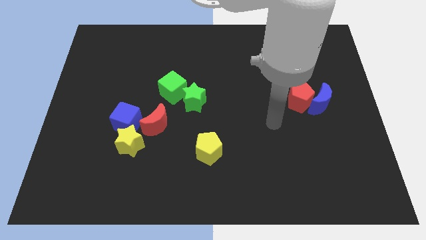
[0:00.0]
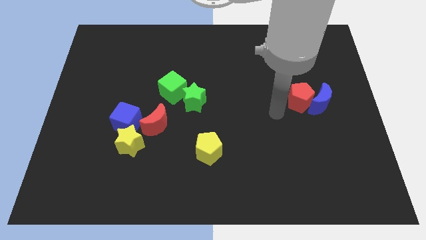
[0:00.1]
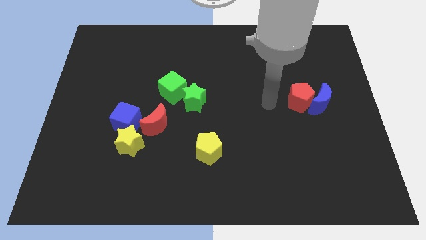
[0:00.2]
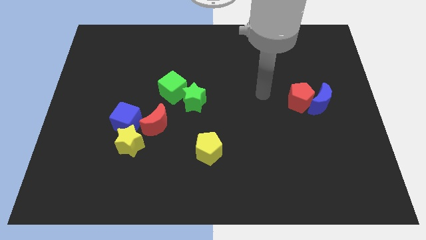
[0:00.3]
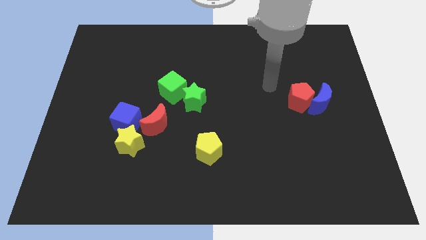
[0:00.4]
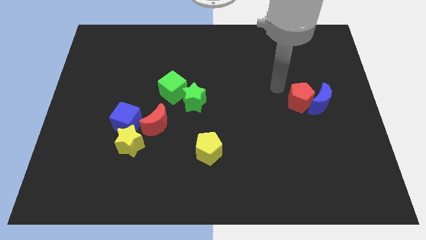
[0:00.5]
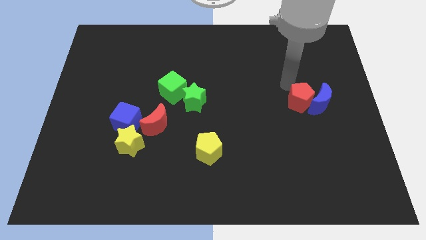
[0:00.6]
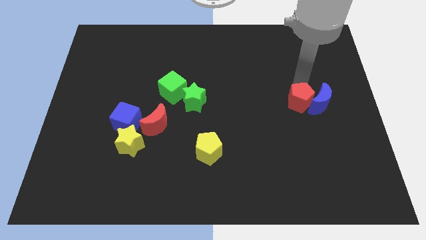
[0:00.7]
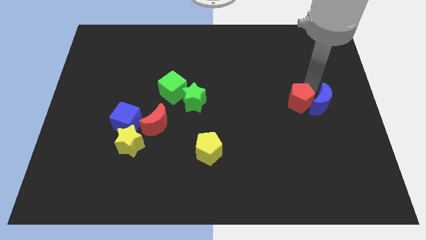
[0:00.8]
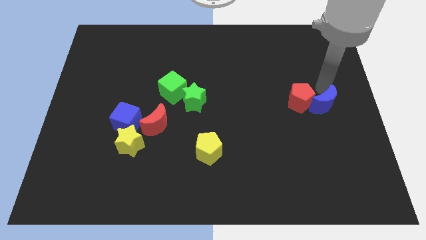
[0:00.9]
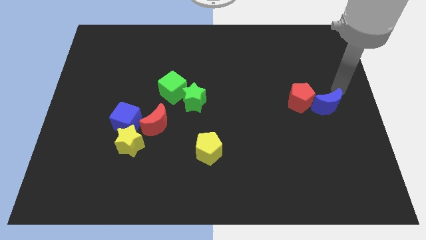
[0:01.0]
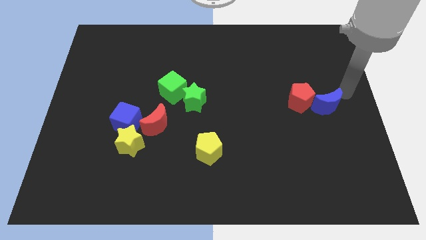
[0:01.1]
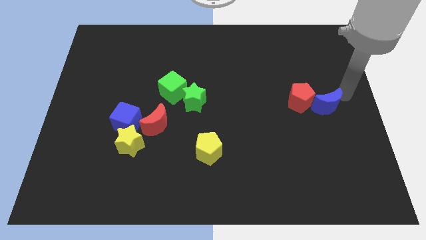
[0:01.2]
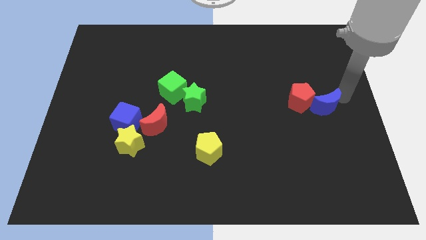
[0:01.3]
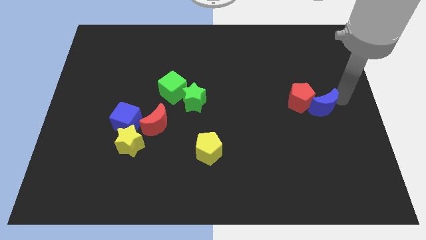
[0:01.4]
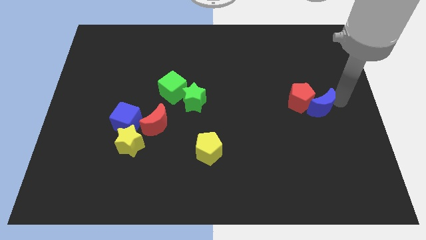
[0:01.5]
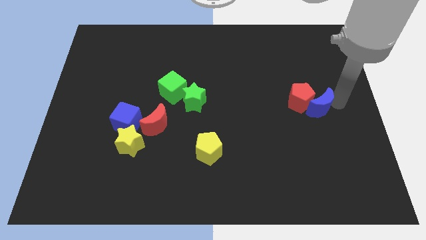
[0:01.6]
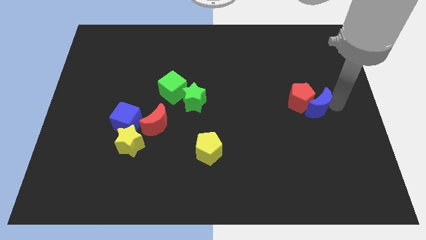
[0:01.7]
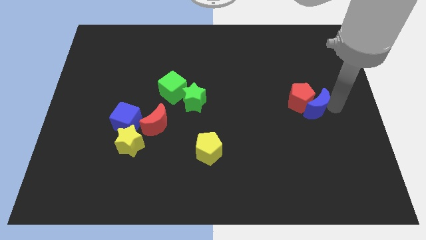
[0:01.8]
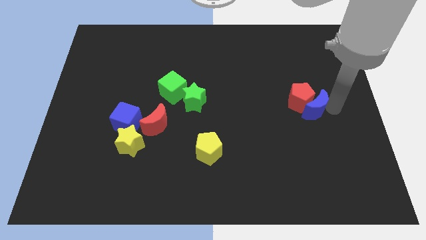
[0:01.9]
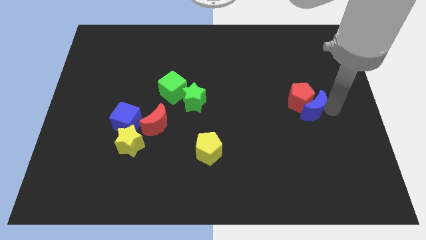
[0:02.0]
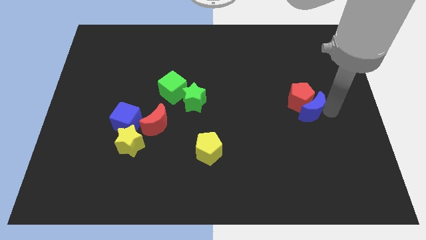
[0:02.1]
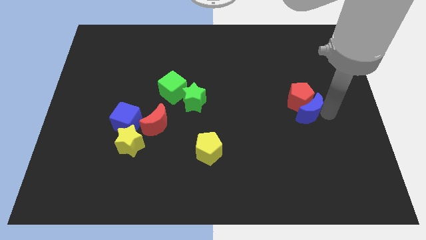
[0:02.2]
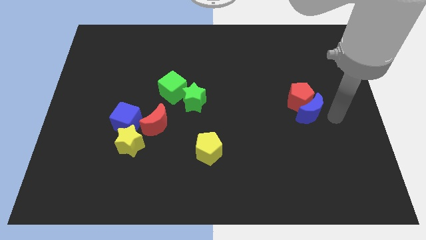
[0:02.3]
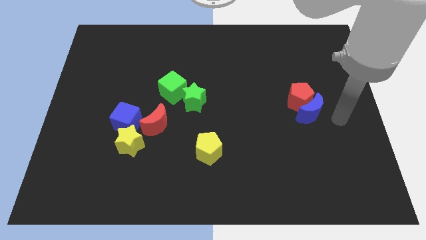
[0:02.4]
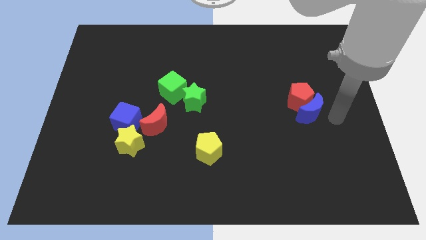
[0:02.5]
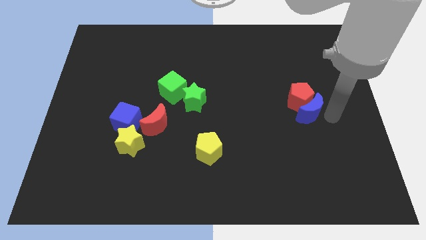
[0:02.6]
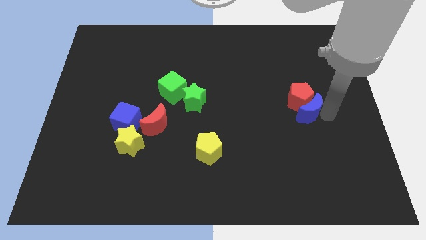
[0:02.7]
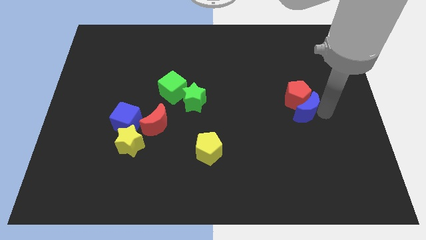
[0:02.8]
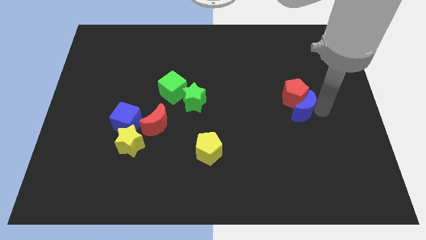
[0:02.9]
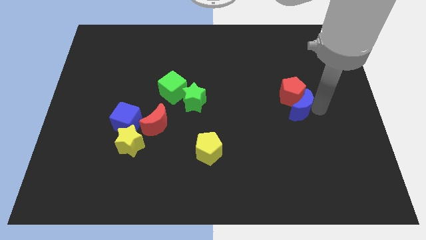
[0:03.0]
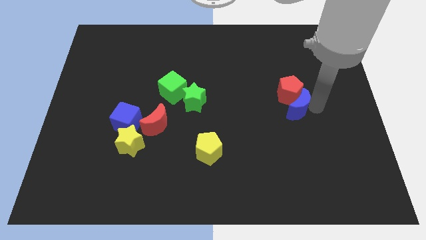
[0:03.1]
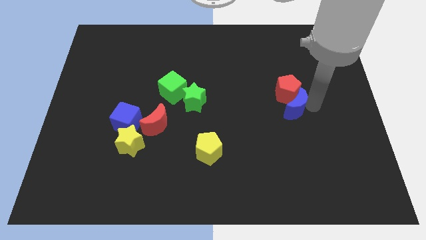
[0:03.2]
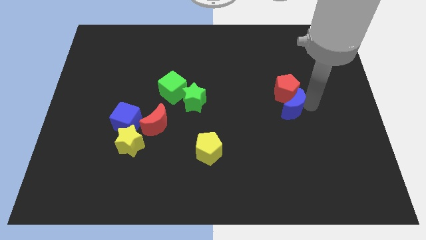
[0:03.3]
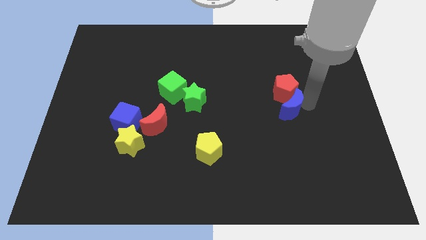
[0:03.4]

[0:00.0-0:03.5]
move the blue moon to the left a little

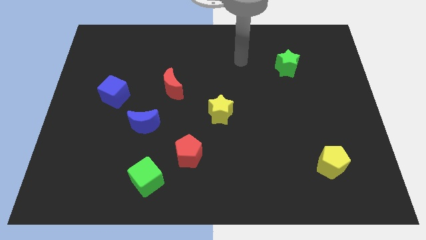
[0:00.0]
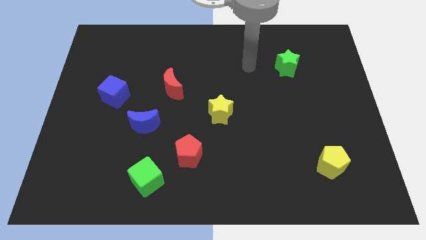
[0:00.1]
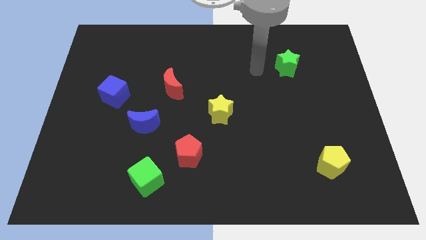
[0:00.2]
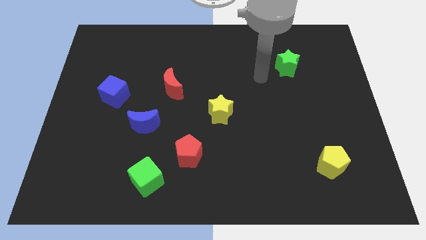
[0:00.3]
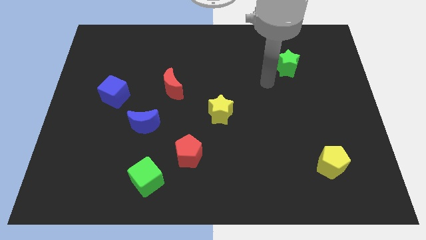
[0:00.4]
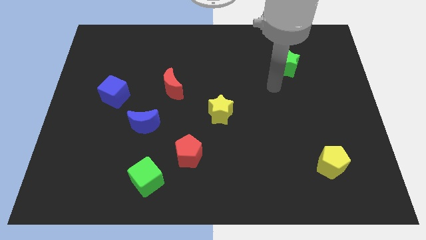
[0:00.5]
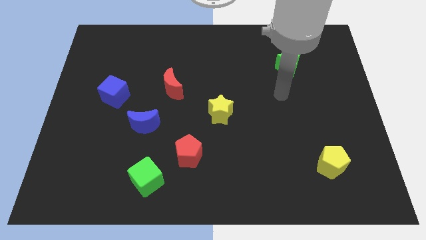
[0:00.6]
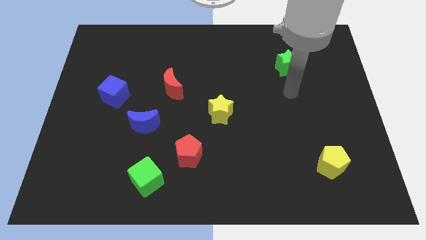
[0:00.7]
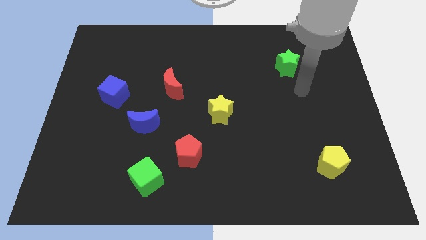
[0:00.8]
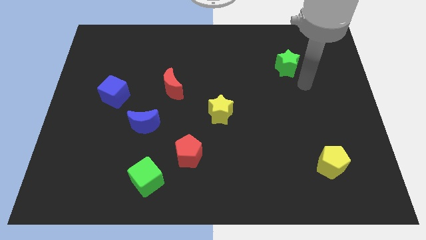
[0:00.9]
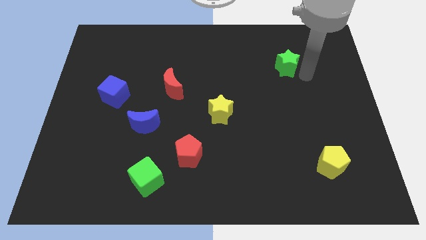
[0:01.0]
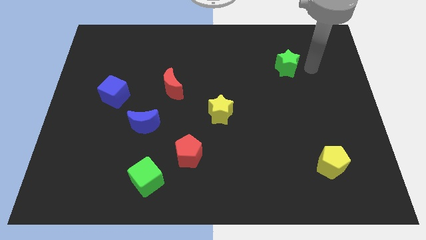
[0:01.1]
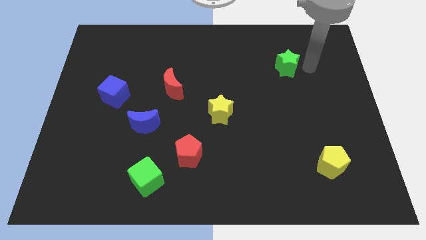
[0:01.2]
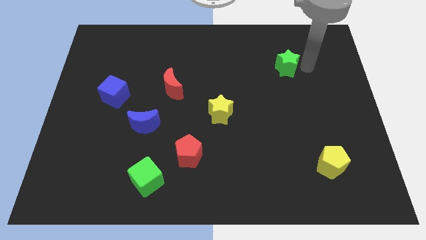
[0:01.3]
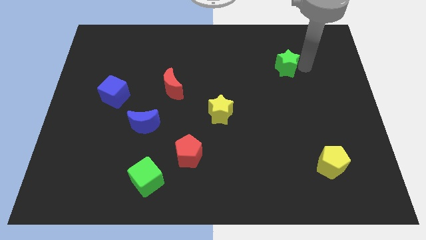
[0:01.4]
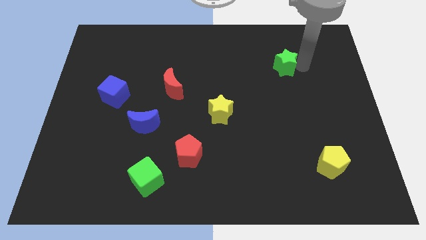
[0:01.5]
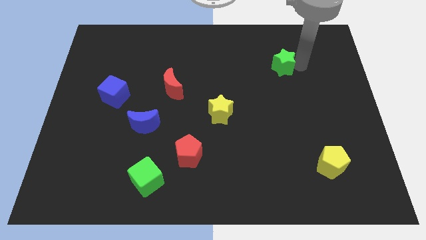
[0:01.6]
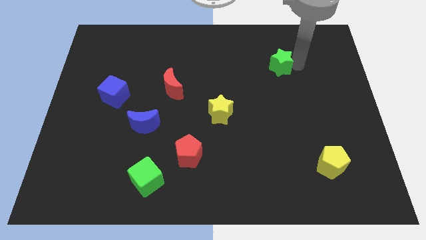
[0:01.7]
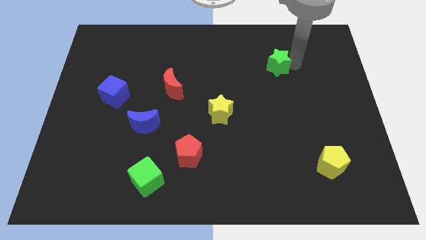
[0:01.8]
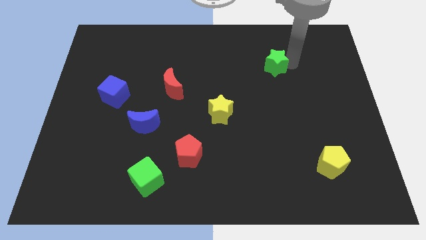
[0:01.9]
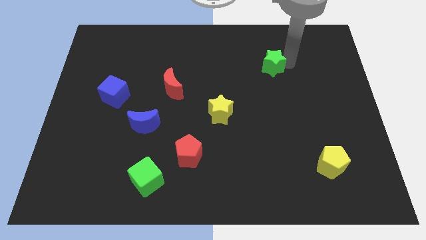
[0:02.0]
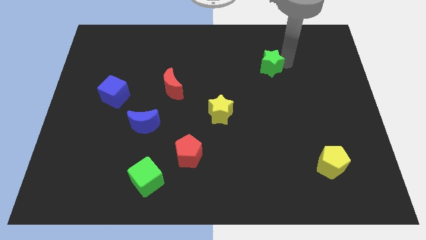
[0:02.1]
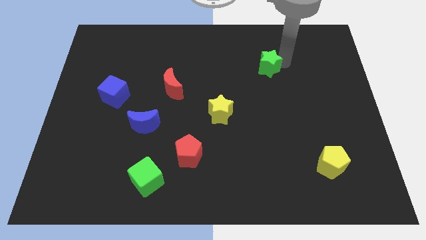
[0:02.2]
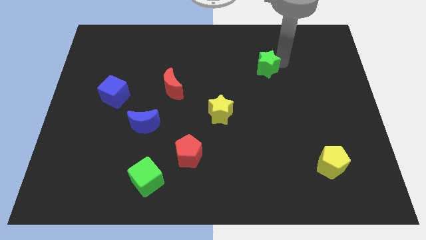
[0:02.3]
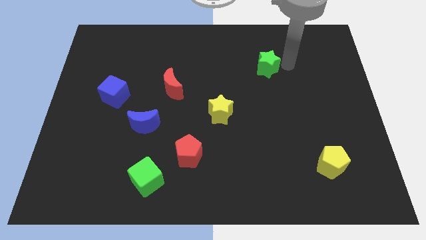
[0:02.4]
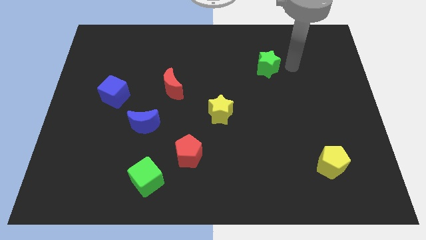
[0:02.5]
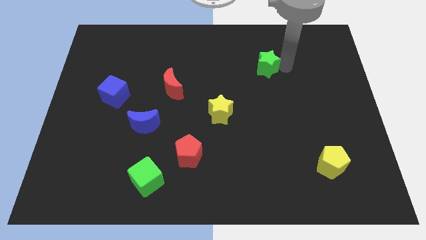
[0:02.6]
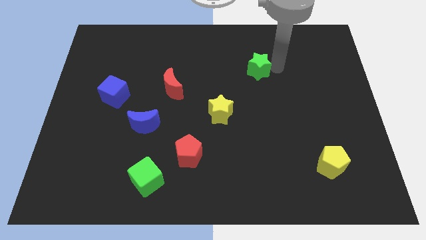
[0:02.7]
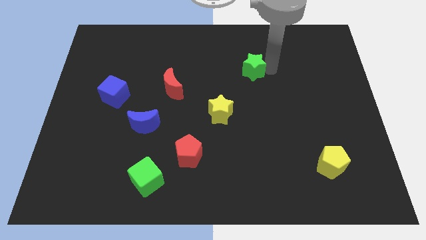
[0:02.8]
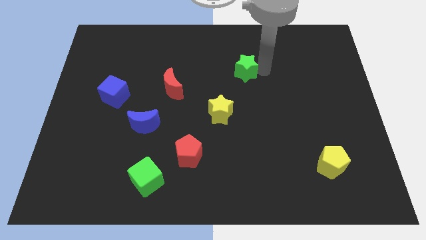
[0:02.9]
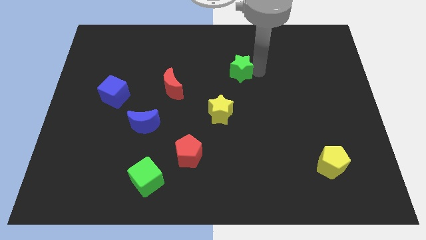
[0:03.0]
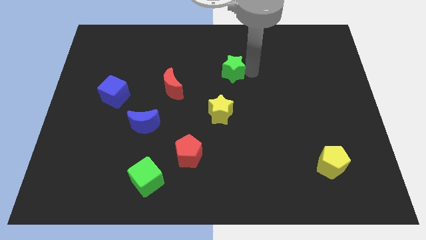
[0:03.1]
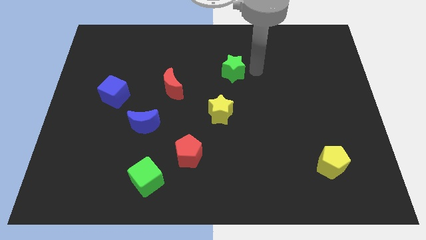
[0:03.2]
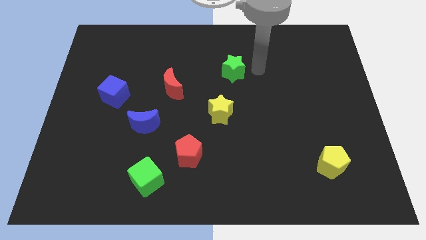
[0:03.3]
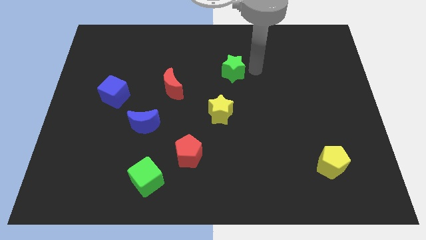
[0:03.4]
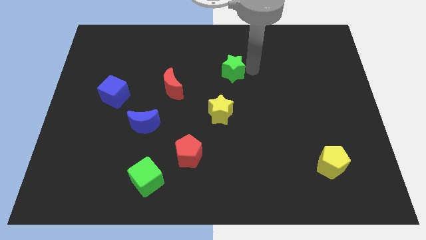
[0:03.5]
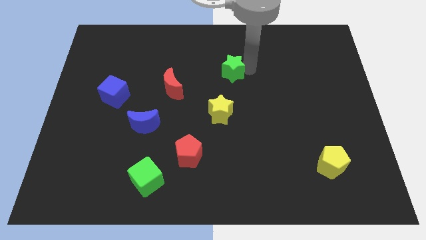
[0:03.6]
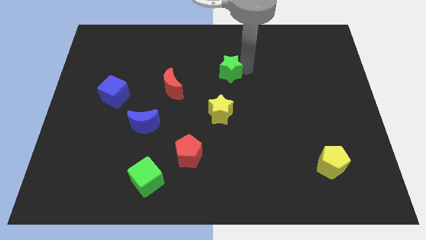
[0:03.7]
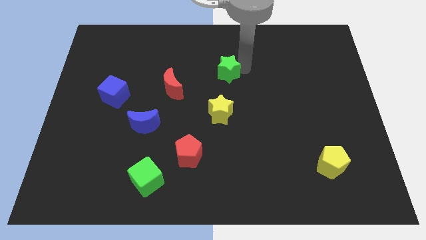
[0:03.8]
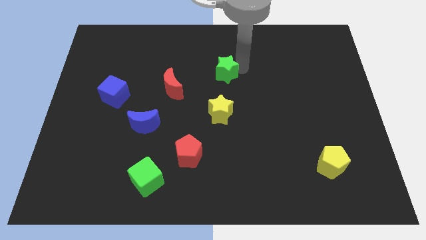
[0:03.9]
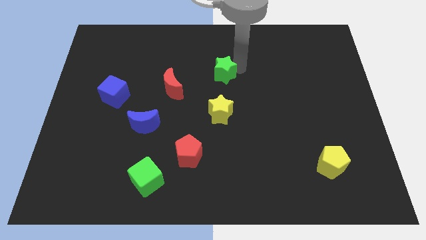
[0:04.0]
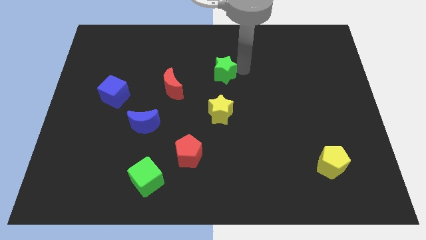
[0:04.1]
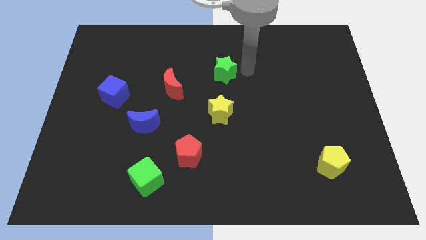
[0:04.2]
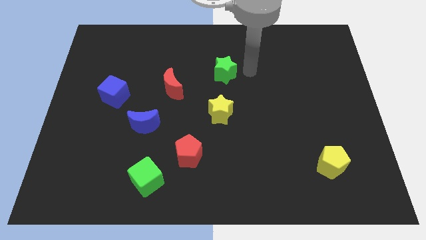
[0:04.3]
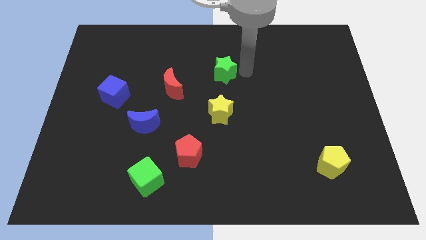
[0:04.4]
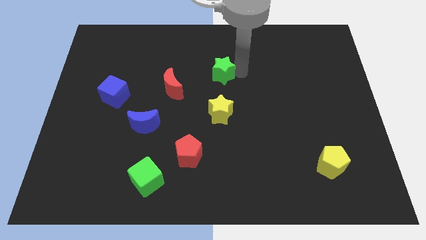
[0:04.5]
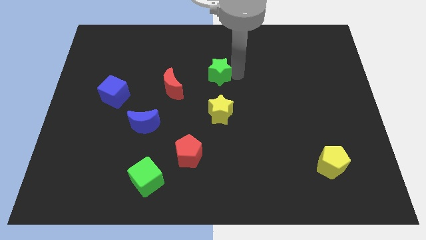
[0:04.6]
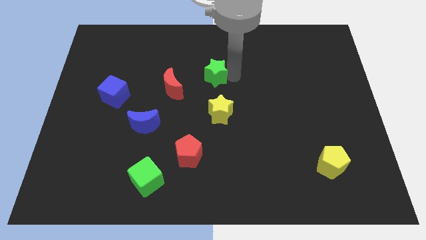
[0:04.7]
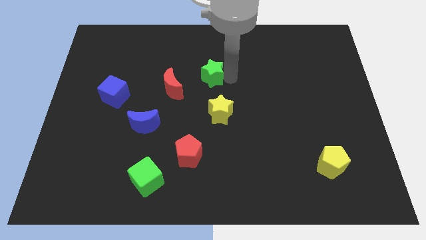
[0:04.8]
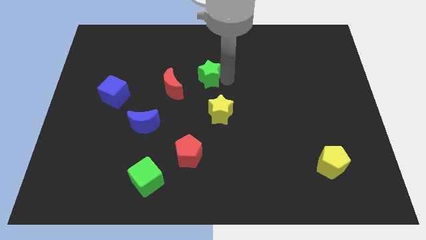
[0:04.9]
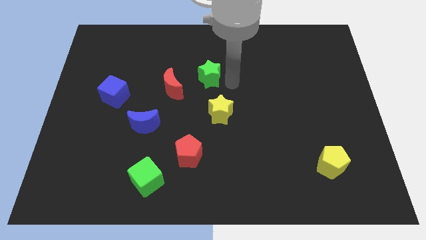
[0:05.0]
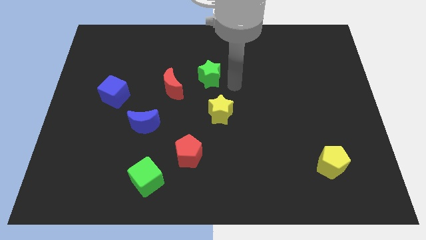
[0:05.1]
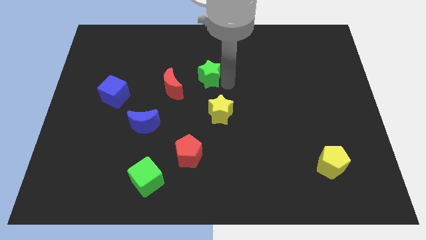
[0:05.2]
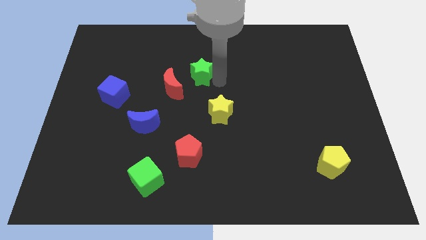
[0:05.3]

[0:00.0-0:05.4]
slide the green star left
